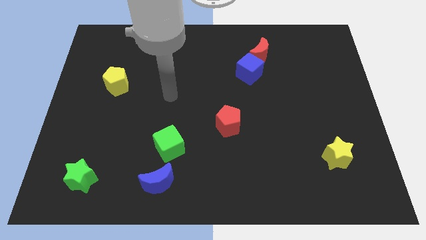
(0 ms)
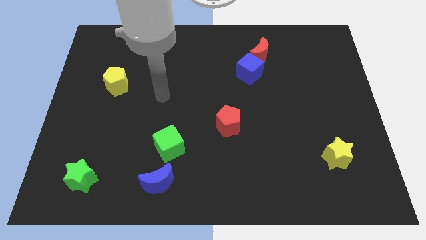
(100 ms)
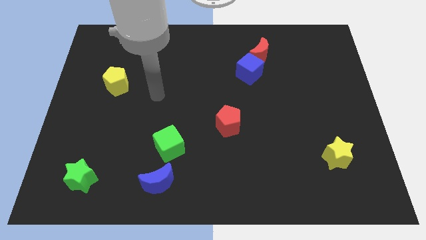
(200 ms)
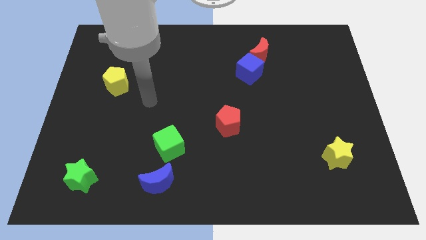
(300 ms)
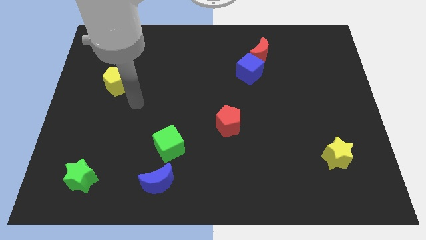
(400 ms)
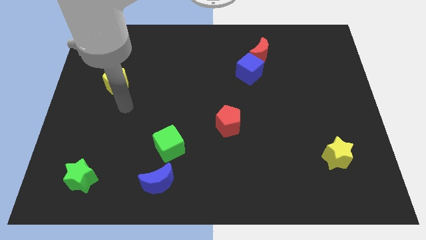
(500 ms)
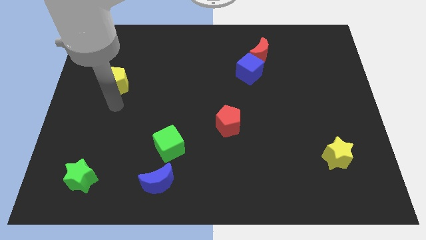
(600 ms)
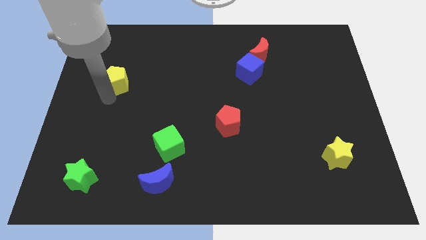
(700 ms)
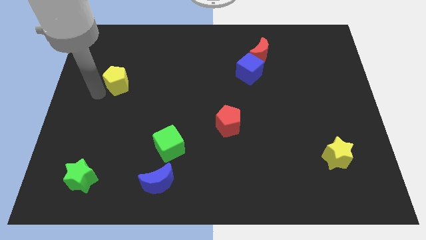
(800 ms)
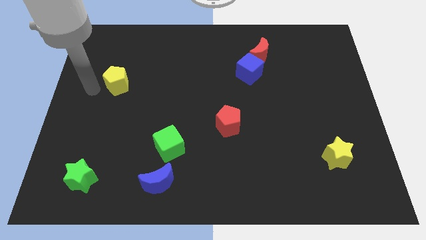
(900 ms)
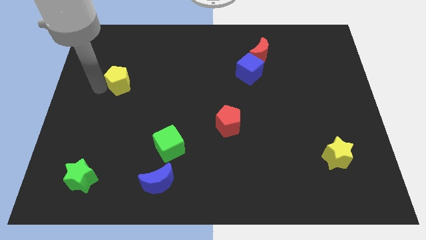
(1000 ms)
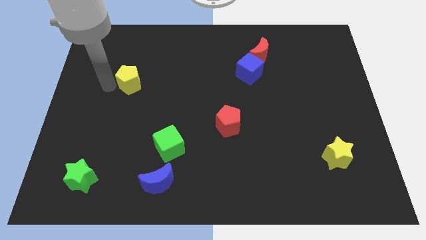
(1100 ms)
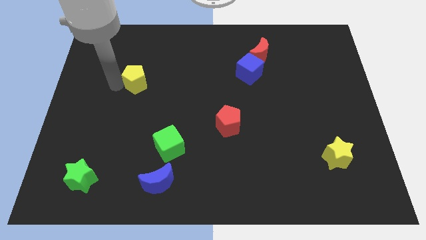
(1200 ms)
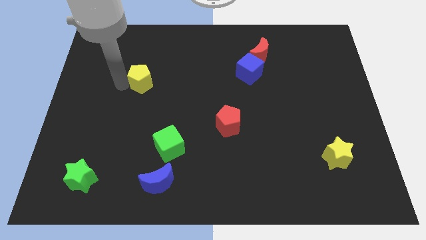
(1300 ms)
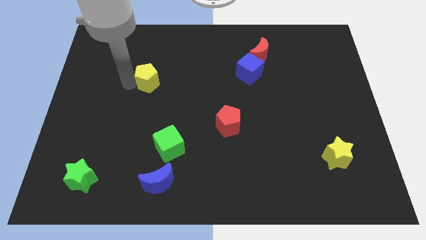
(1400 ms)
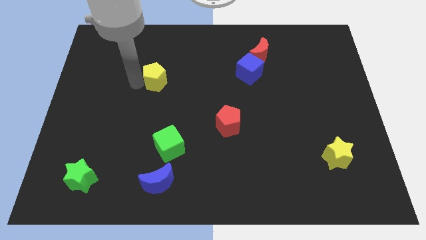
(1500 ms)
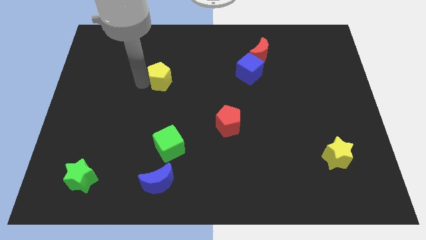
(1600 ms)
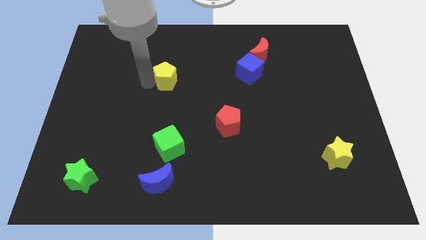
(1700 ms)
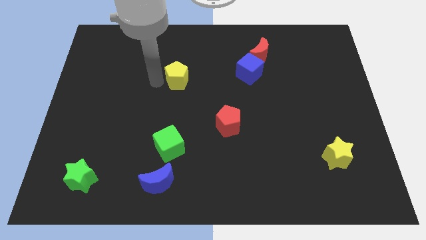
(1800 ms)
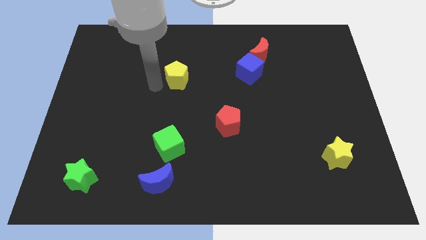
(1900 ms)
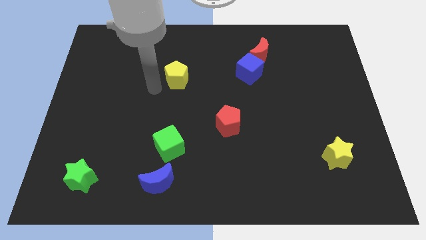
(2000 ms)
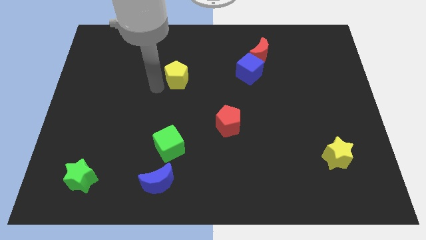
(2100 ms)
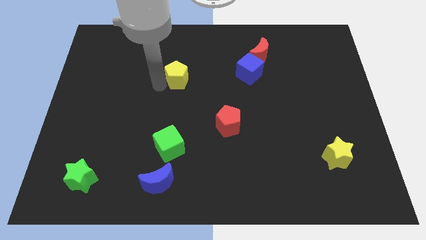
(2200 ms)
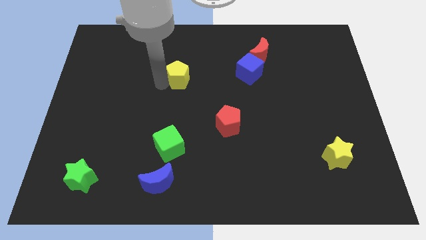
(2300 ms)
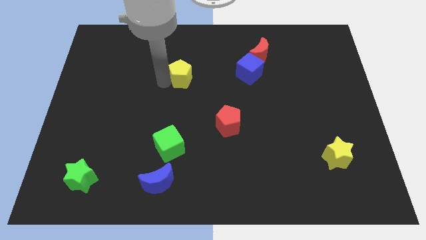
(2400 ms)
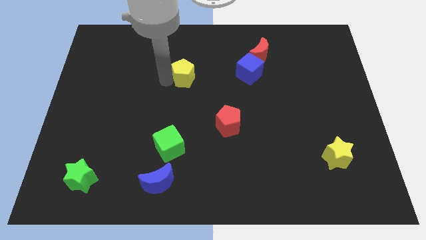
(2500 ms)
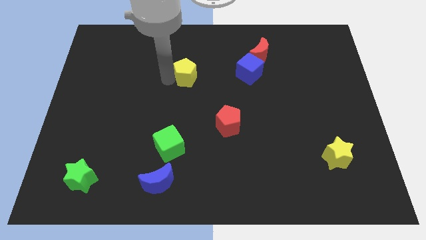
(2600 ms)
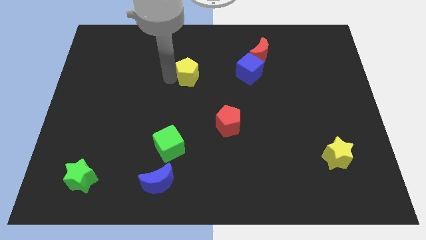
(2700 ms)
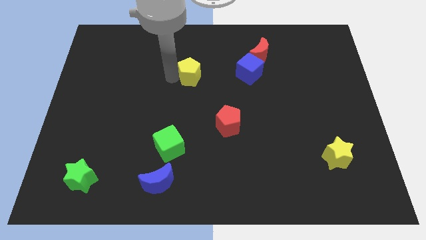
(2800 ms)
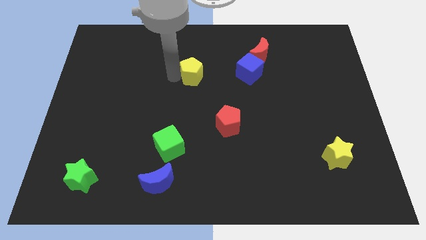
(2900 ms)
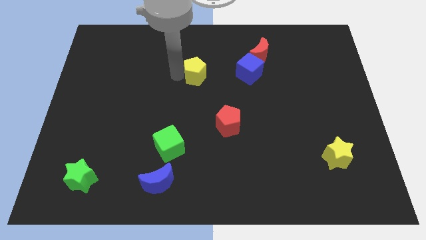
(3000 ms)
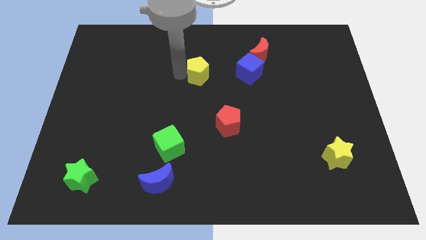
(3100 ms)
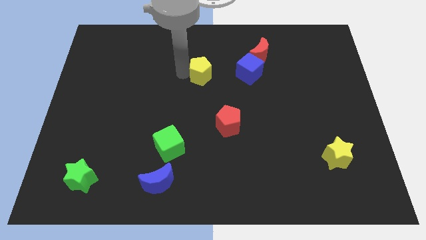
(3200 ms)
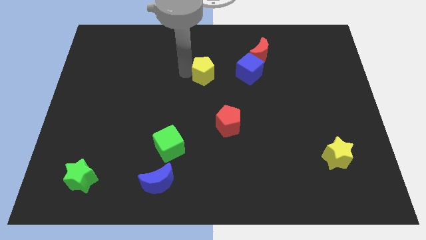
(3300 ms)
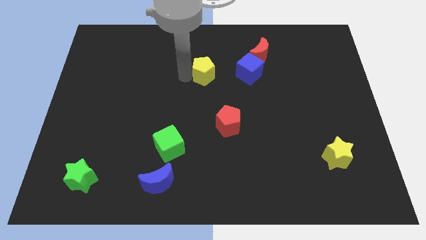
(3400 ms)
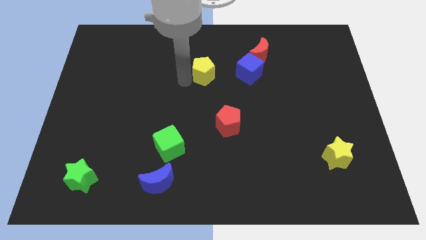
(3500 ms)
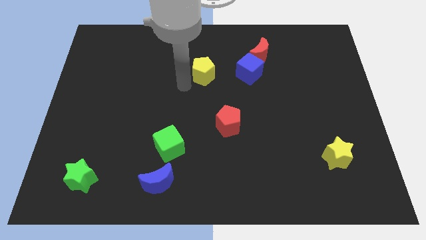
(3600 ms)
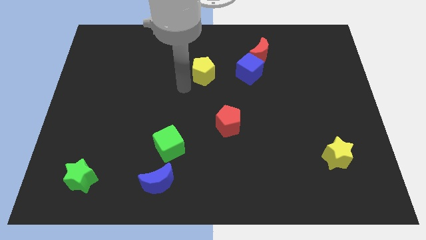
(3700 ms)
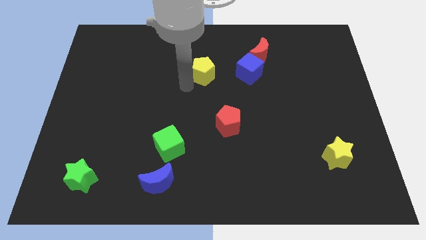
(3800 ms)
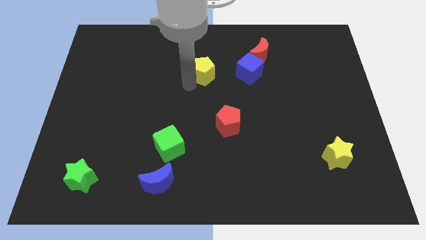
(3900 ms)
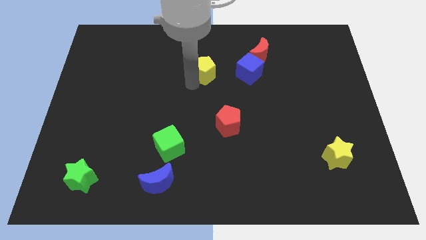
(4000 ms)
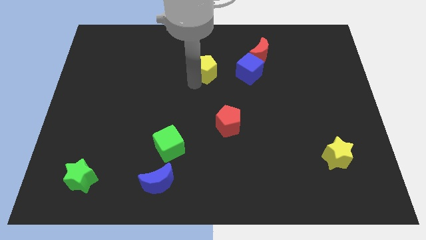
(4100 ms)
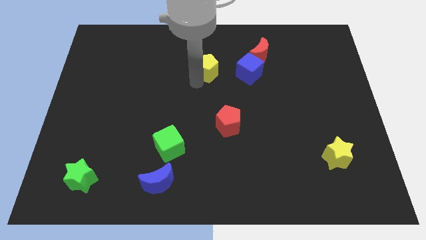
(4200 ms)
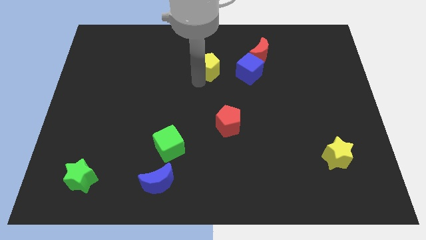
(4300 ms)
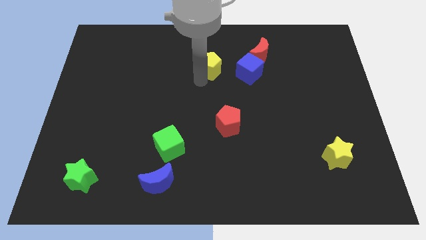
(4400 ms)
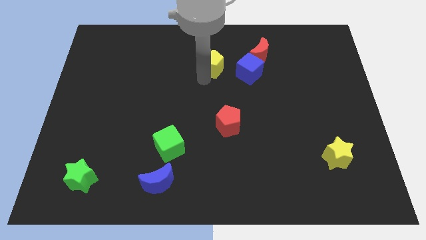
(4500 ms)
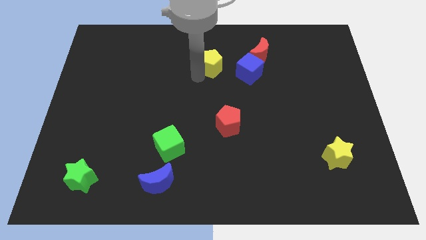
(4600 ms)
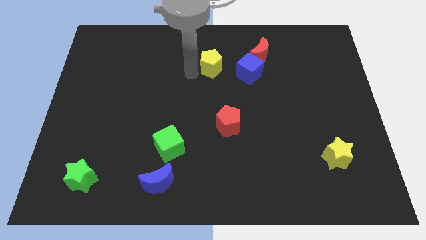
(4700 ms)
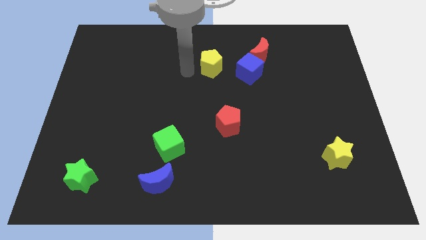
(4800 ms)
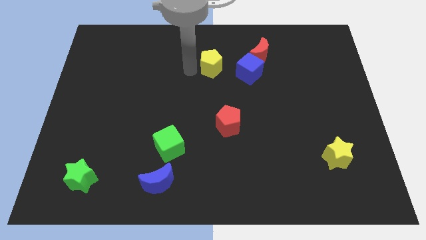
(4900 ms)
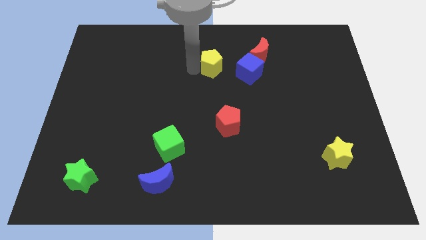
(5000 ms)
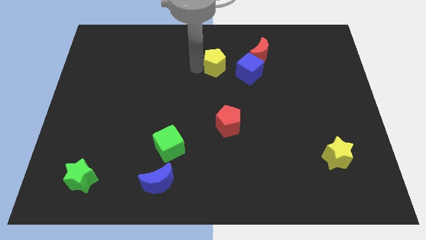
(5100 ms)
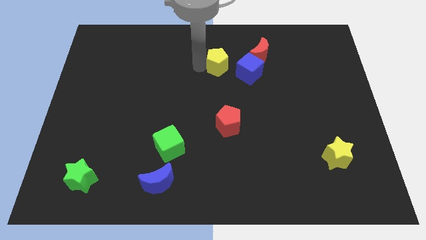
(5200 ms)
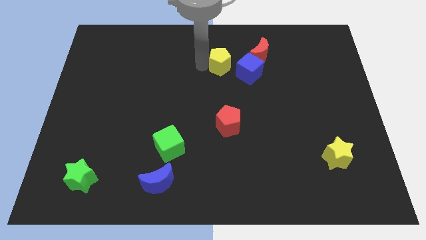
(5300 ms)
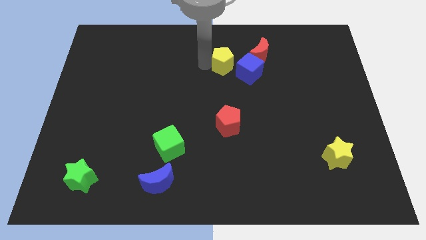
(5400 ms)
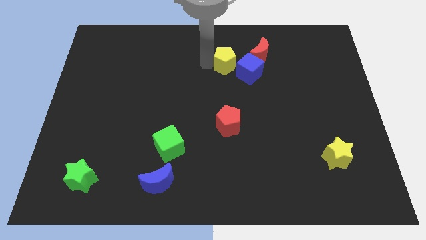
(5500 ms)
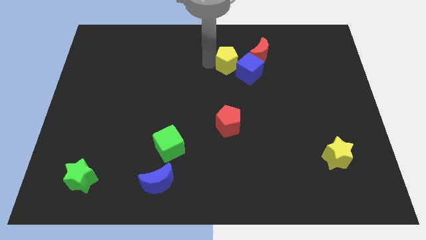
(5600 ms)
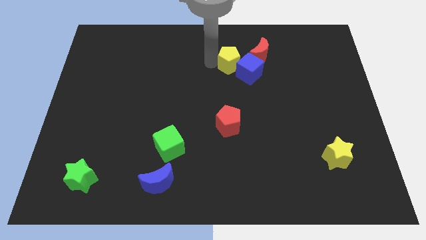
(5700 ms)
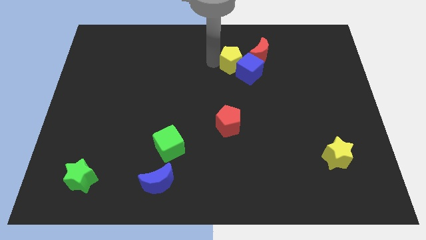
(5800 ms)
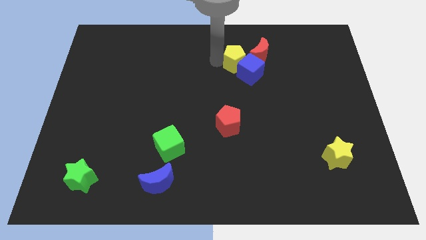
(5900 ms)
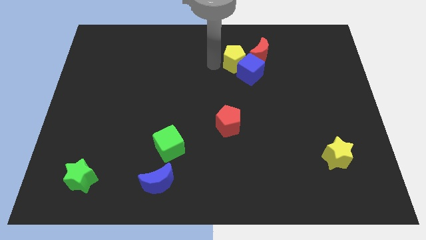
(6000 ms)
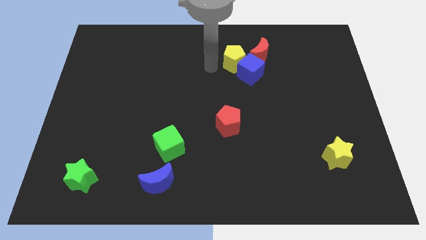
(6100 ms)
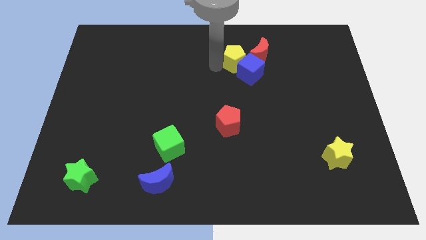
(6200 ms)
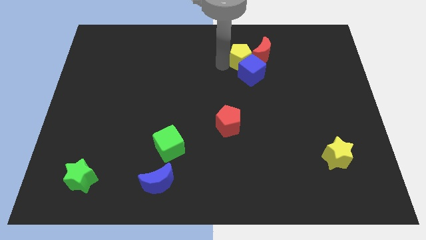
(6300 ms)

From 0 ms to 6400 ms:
put the yellow pentagon to the red moon

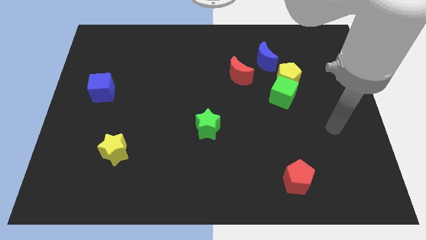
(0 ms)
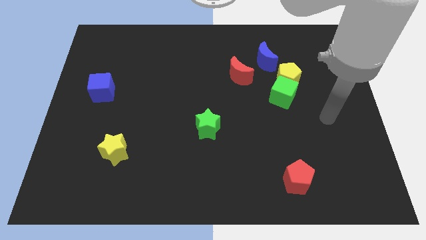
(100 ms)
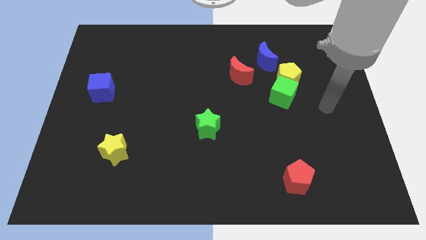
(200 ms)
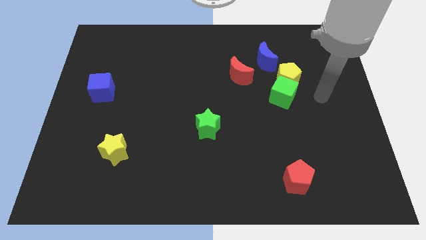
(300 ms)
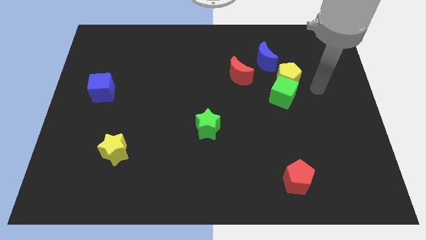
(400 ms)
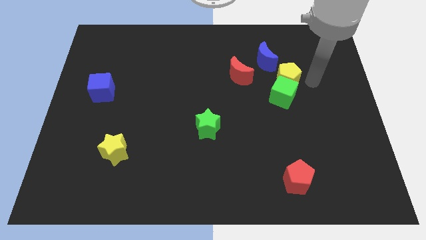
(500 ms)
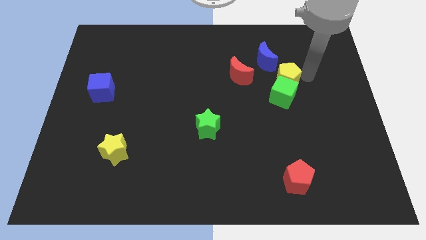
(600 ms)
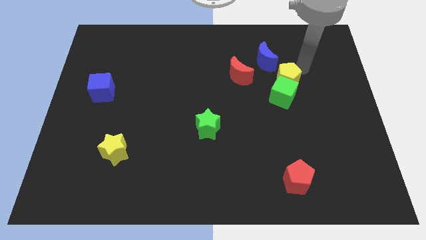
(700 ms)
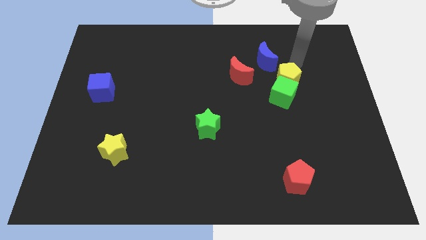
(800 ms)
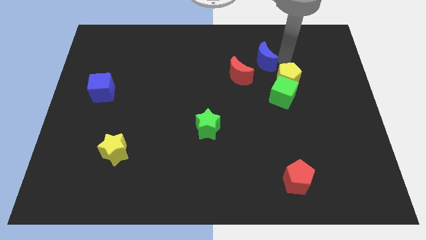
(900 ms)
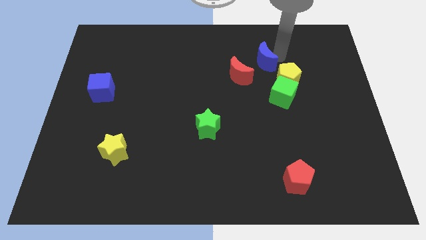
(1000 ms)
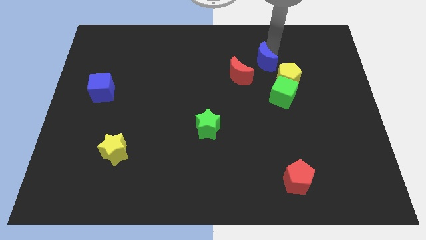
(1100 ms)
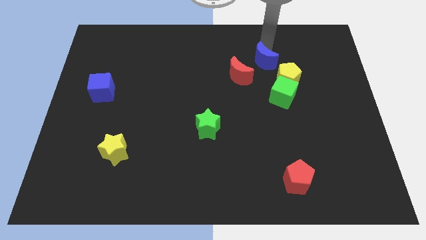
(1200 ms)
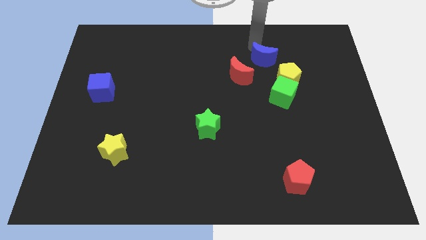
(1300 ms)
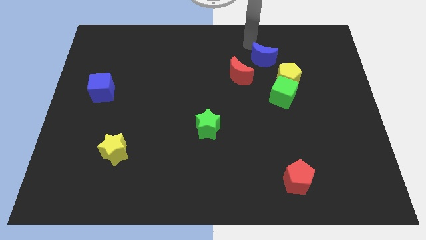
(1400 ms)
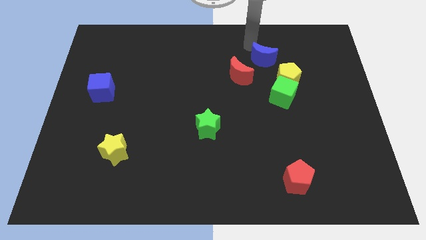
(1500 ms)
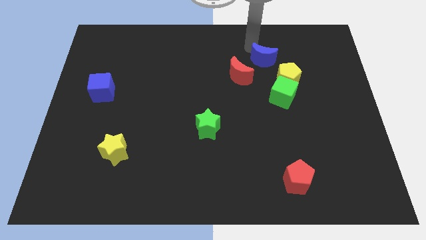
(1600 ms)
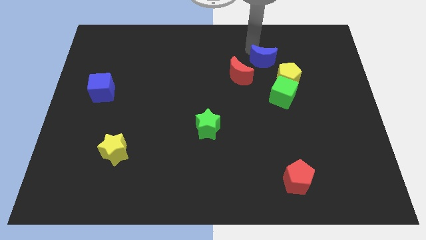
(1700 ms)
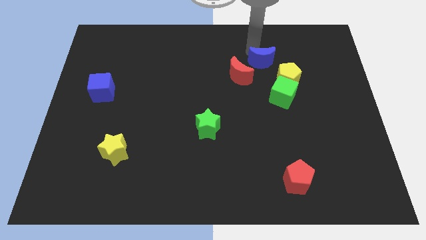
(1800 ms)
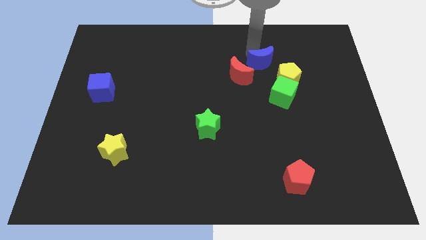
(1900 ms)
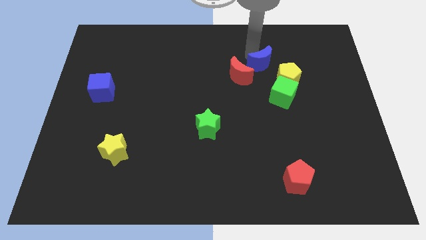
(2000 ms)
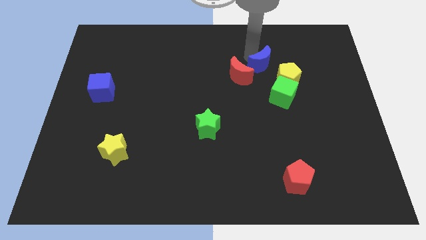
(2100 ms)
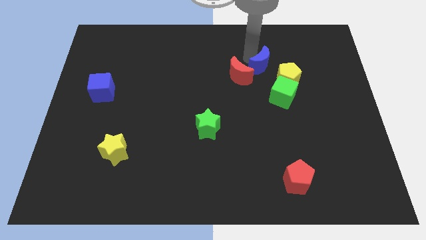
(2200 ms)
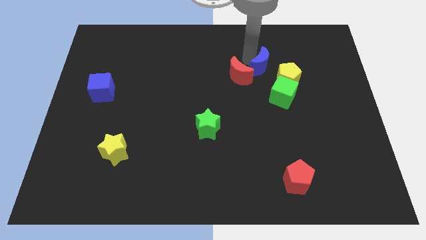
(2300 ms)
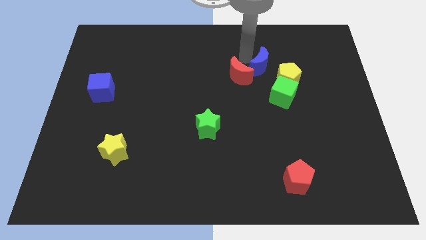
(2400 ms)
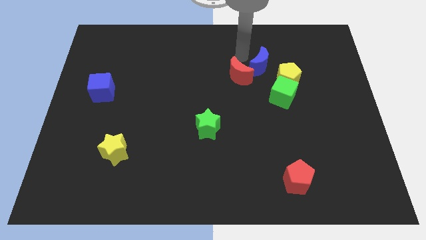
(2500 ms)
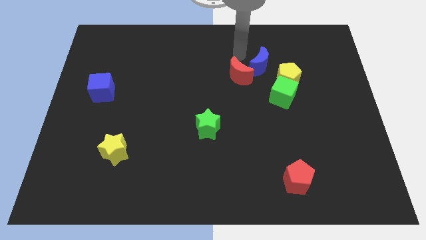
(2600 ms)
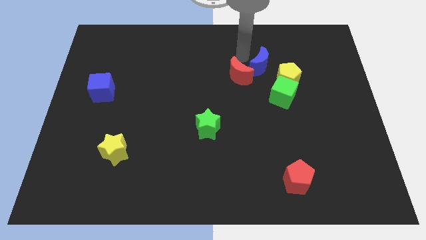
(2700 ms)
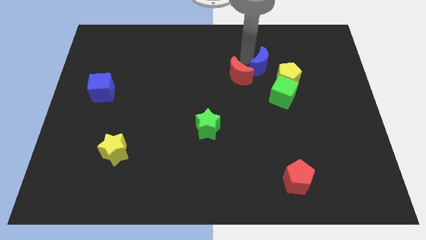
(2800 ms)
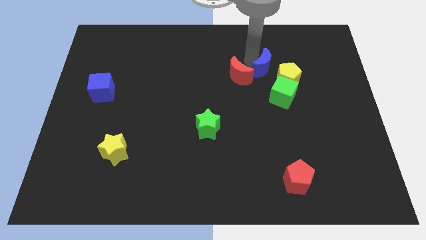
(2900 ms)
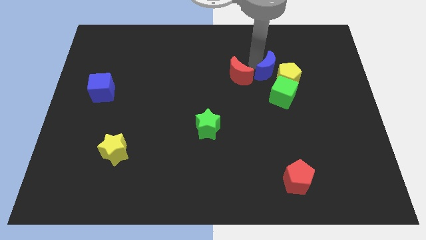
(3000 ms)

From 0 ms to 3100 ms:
push the blue moon towards the yellow pentagon
